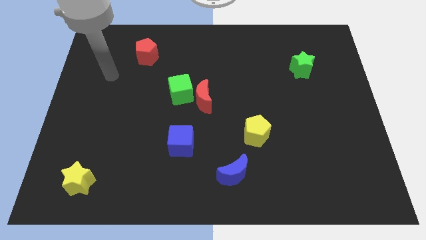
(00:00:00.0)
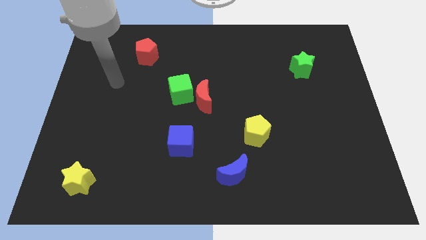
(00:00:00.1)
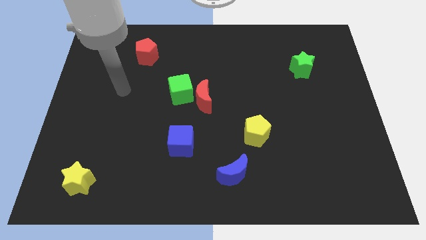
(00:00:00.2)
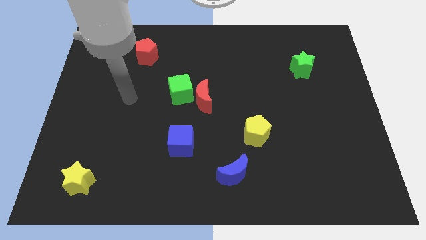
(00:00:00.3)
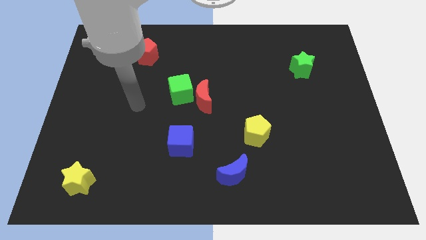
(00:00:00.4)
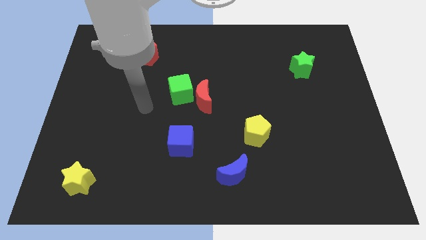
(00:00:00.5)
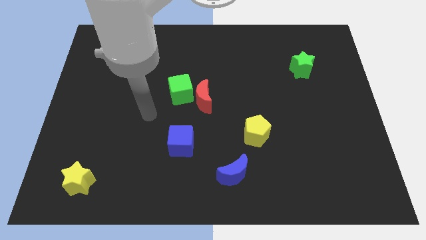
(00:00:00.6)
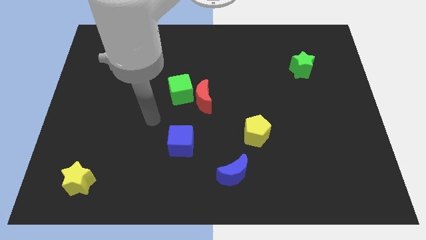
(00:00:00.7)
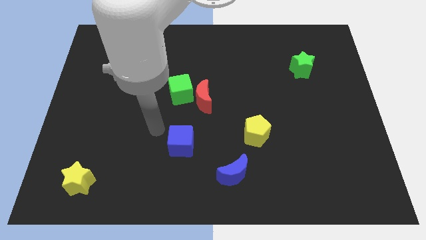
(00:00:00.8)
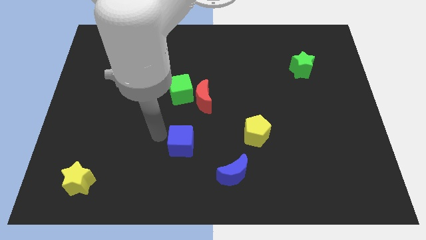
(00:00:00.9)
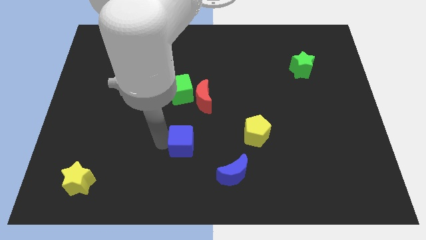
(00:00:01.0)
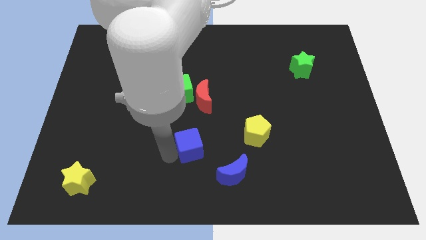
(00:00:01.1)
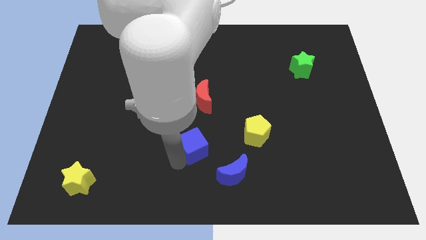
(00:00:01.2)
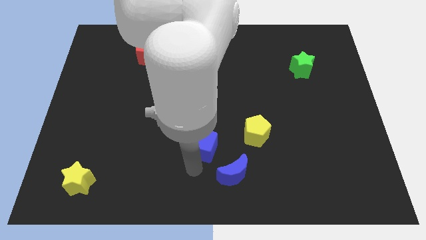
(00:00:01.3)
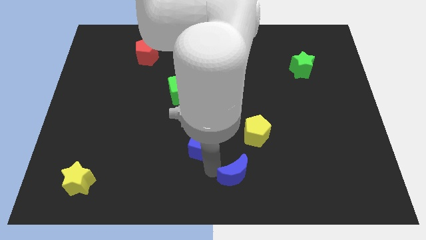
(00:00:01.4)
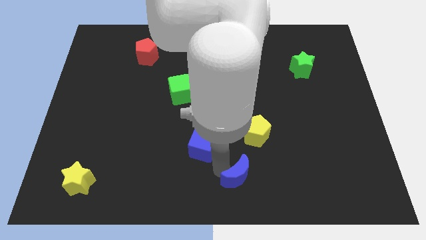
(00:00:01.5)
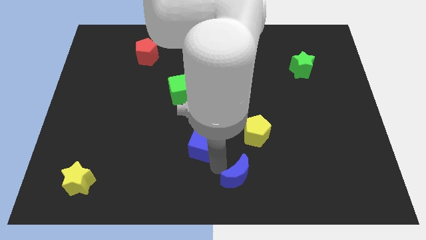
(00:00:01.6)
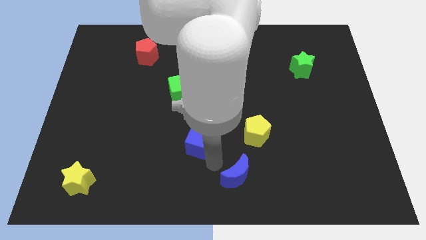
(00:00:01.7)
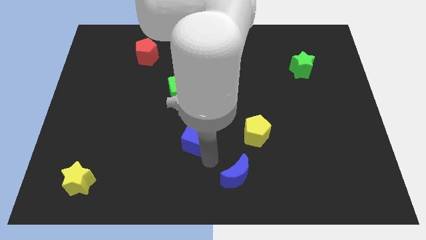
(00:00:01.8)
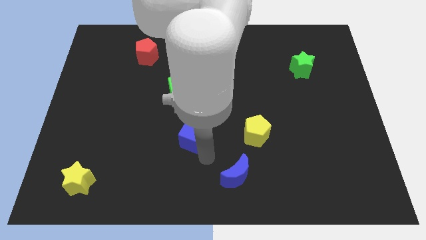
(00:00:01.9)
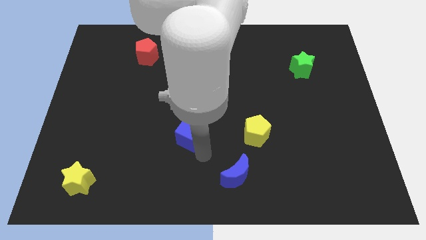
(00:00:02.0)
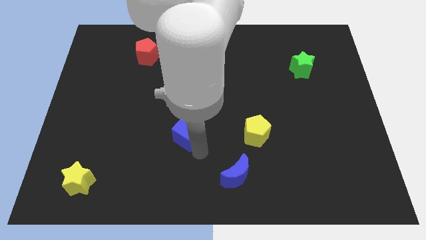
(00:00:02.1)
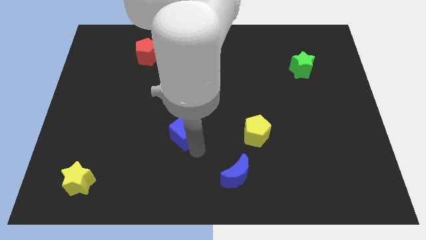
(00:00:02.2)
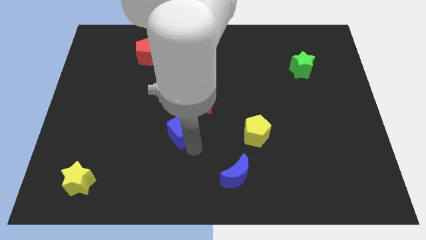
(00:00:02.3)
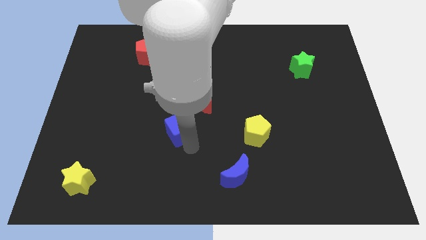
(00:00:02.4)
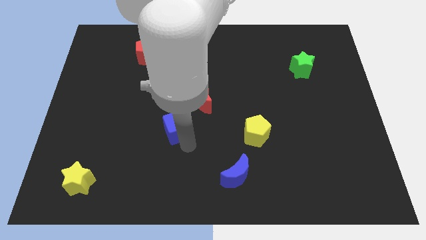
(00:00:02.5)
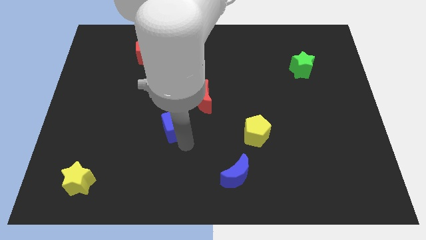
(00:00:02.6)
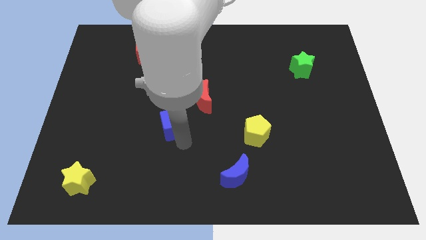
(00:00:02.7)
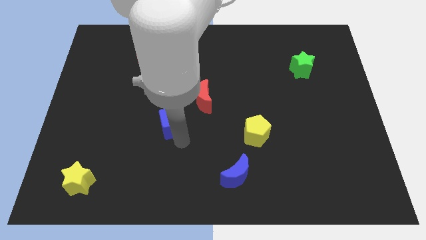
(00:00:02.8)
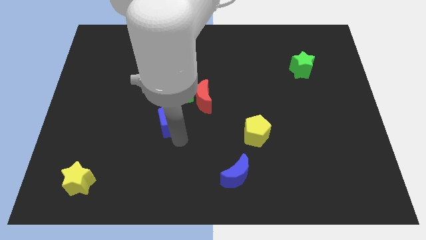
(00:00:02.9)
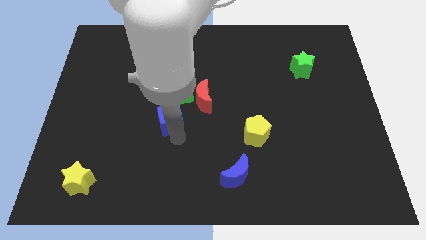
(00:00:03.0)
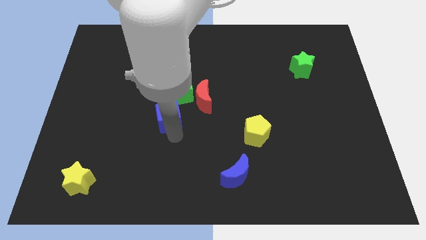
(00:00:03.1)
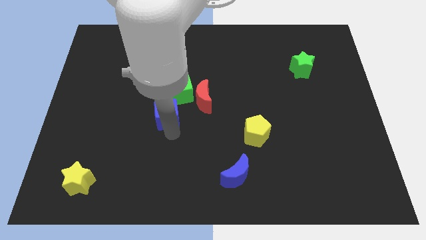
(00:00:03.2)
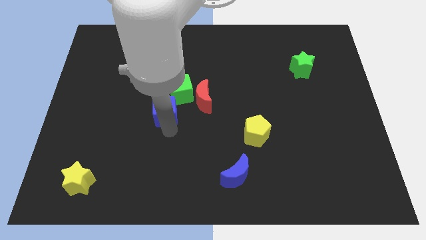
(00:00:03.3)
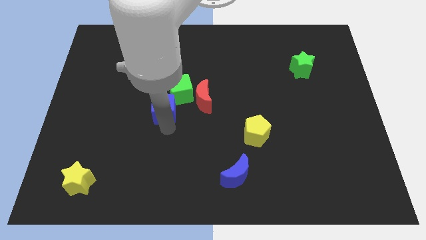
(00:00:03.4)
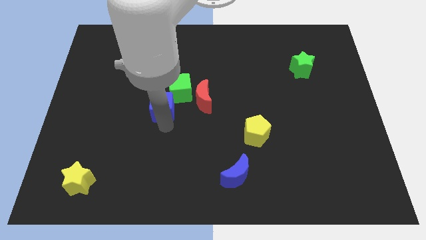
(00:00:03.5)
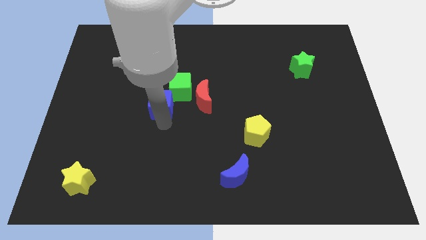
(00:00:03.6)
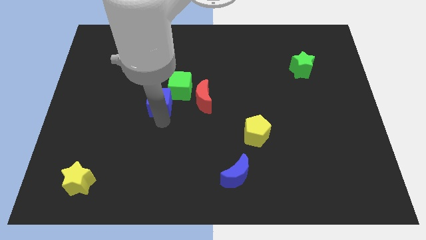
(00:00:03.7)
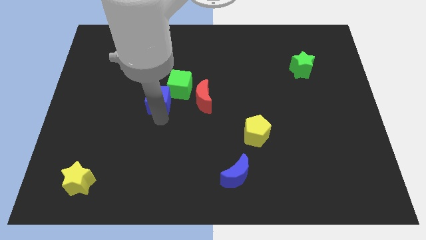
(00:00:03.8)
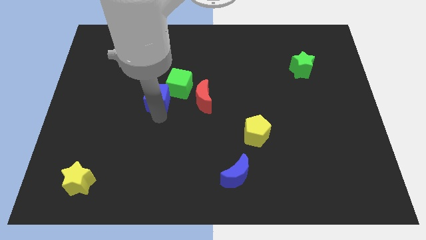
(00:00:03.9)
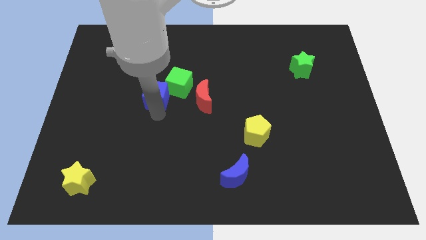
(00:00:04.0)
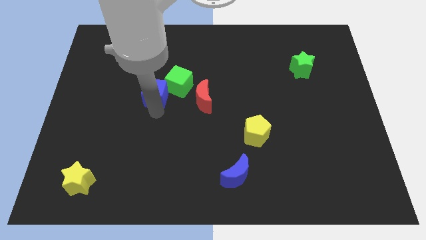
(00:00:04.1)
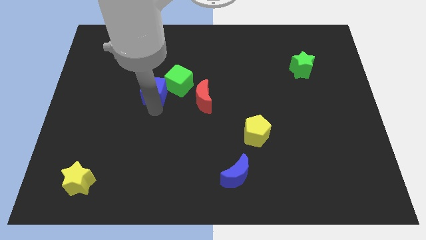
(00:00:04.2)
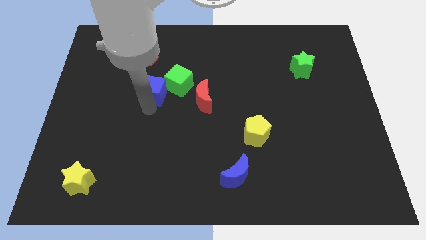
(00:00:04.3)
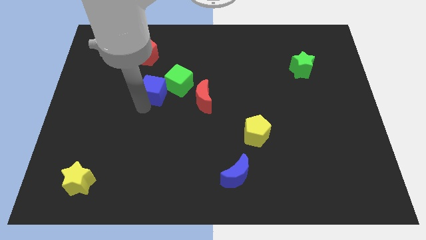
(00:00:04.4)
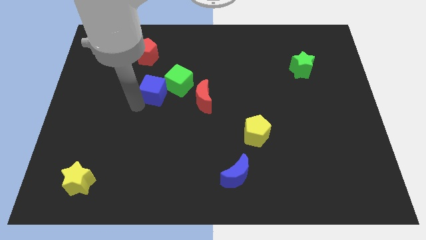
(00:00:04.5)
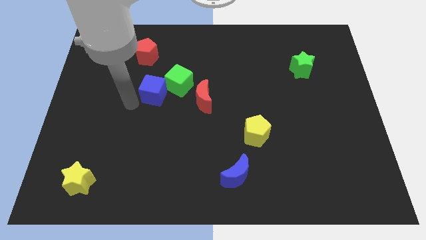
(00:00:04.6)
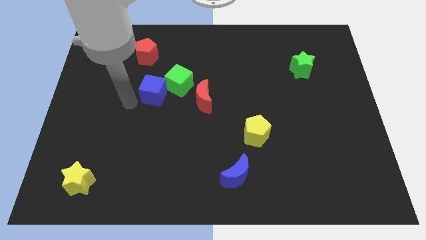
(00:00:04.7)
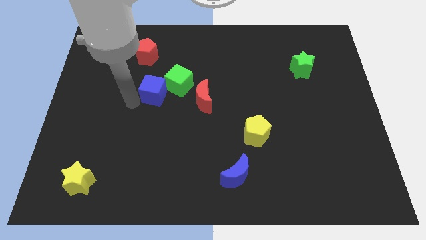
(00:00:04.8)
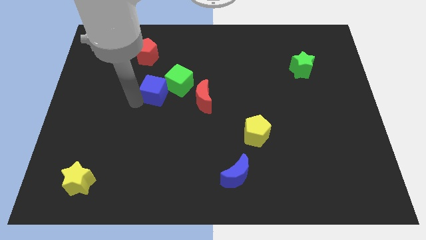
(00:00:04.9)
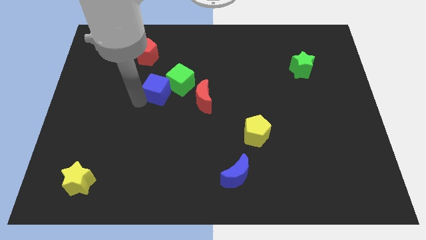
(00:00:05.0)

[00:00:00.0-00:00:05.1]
slide the blue cube to the green cube

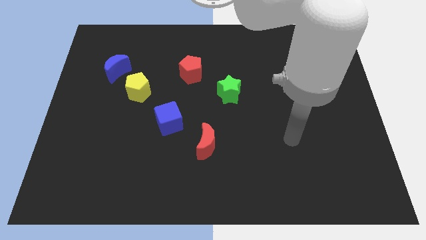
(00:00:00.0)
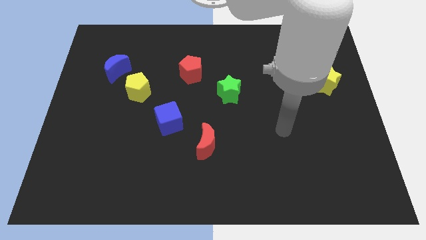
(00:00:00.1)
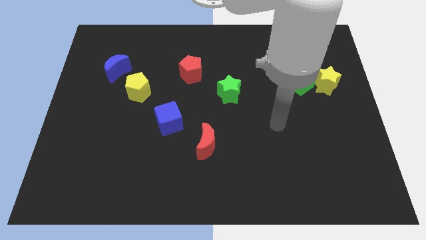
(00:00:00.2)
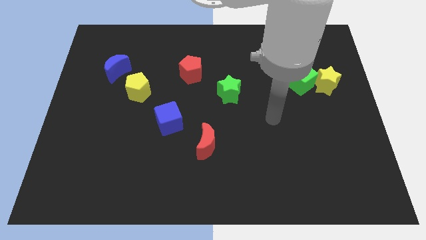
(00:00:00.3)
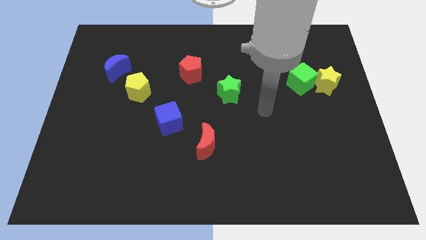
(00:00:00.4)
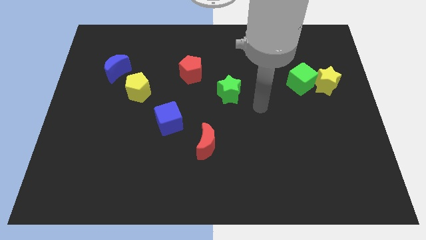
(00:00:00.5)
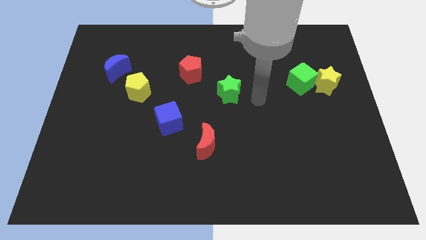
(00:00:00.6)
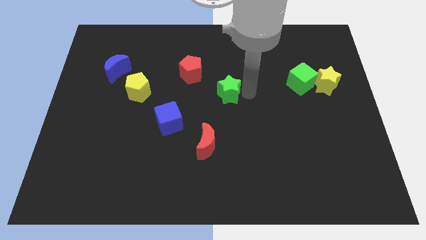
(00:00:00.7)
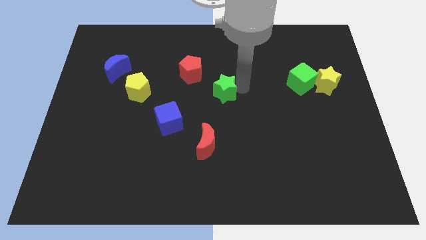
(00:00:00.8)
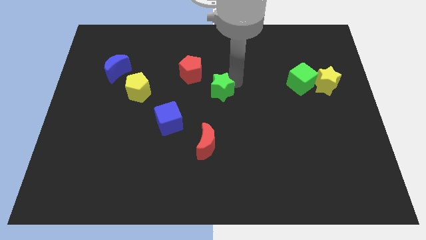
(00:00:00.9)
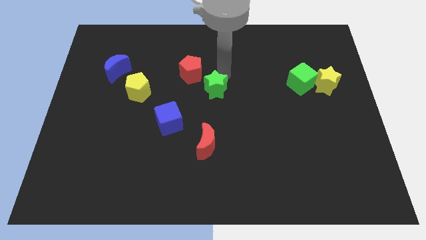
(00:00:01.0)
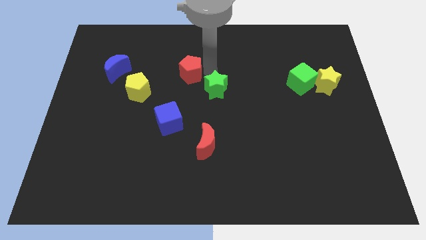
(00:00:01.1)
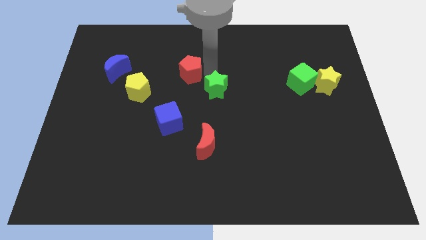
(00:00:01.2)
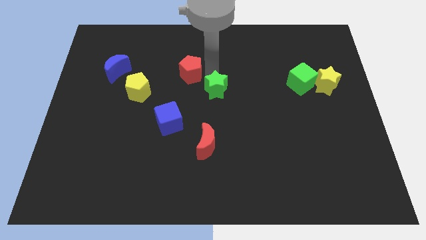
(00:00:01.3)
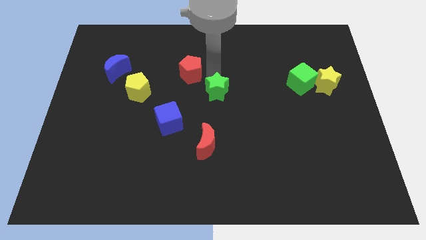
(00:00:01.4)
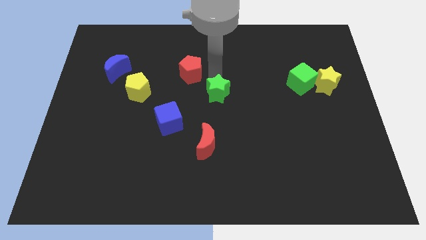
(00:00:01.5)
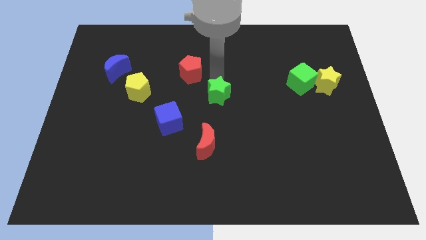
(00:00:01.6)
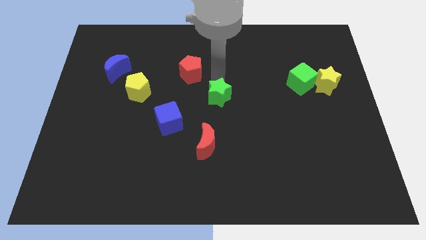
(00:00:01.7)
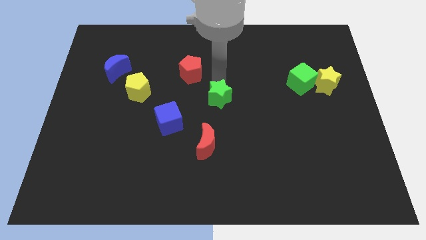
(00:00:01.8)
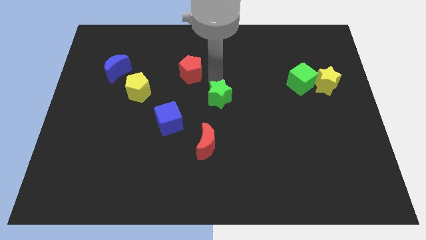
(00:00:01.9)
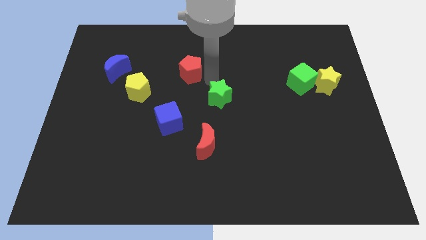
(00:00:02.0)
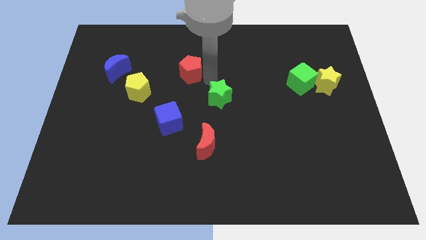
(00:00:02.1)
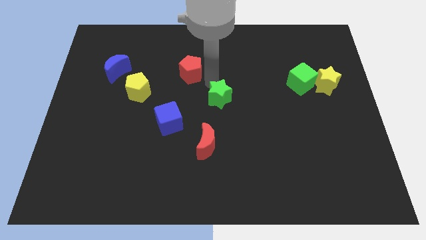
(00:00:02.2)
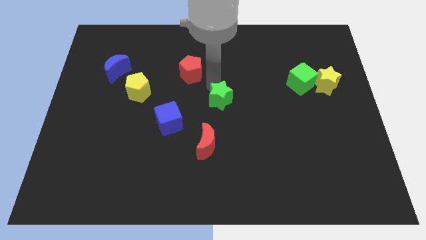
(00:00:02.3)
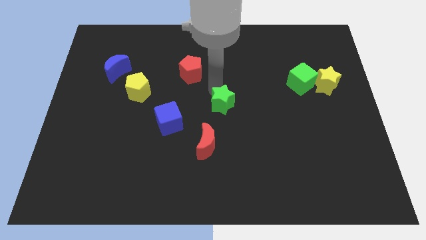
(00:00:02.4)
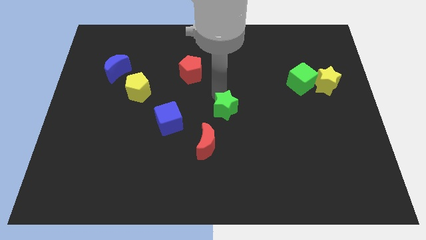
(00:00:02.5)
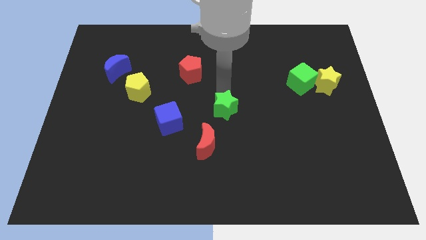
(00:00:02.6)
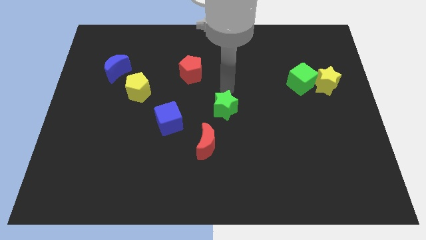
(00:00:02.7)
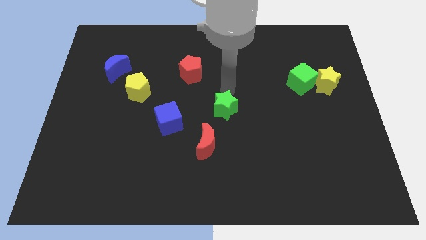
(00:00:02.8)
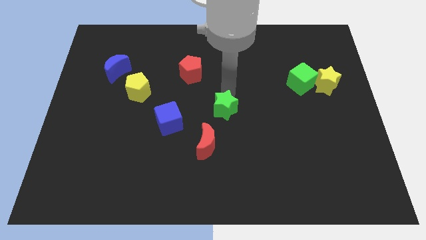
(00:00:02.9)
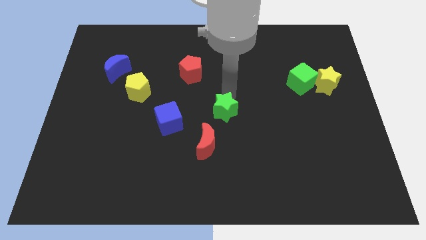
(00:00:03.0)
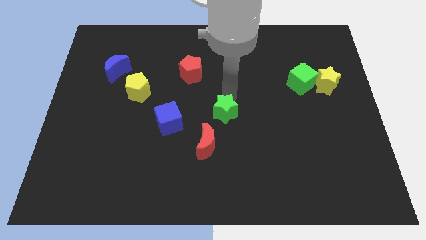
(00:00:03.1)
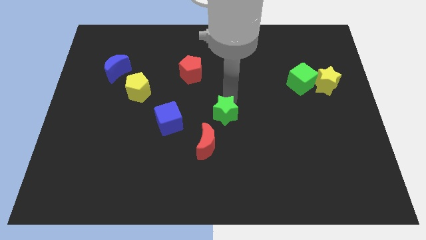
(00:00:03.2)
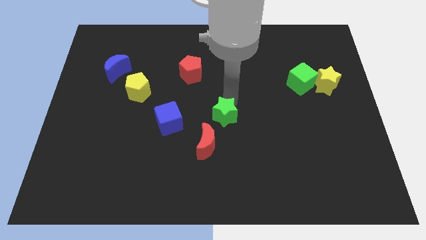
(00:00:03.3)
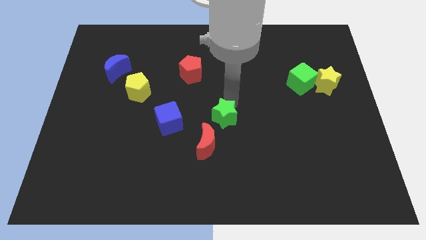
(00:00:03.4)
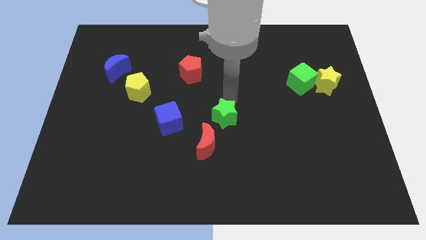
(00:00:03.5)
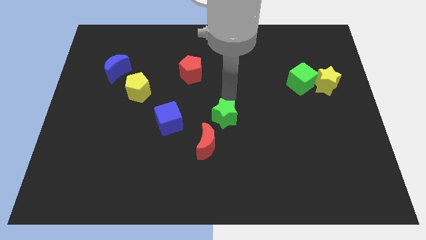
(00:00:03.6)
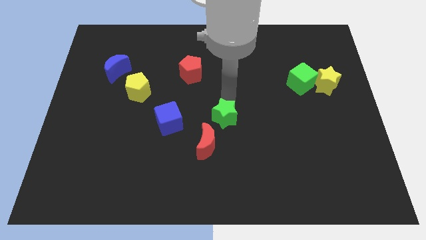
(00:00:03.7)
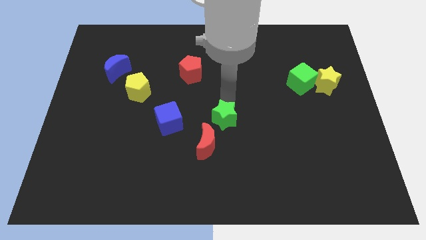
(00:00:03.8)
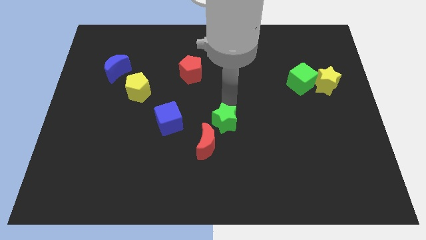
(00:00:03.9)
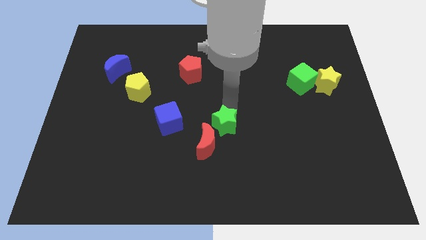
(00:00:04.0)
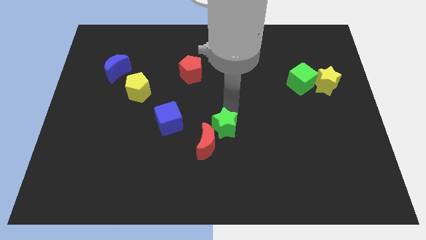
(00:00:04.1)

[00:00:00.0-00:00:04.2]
put the green star close to the red moon
